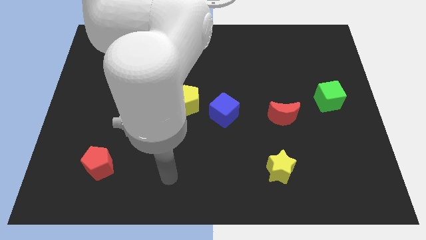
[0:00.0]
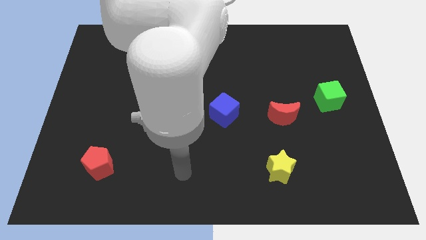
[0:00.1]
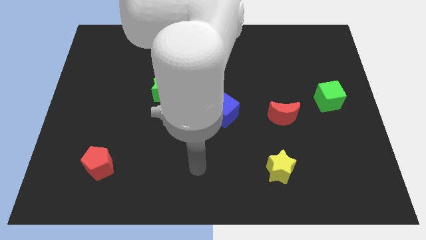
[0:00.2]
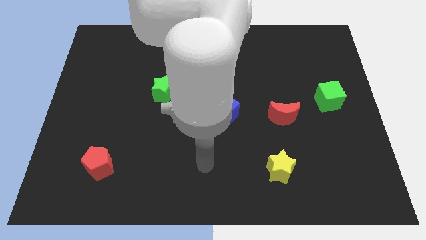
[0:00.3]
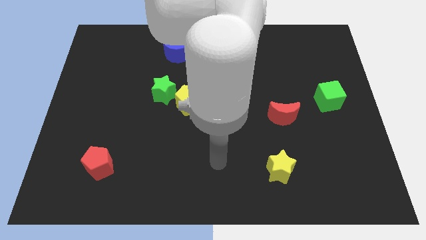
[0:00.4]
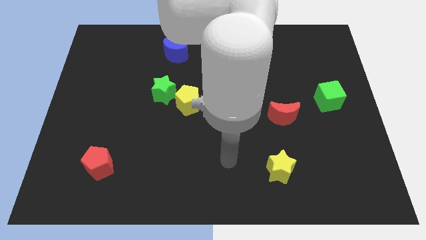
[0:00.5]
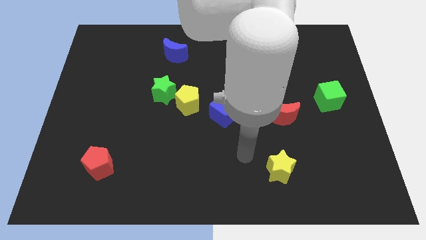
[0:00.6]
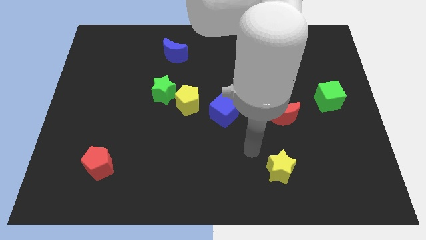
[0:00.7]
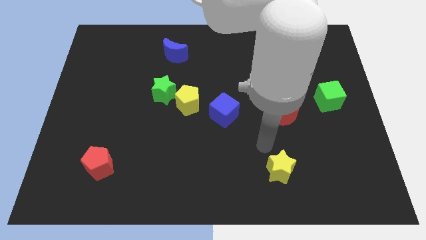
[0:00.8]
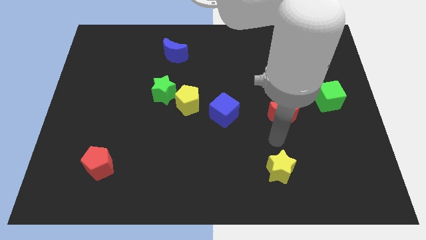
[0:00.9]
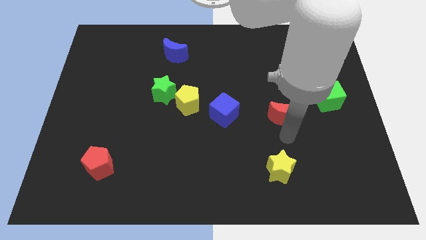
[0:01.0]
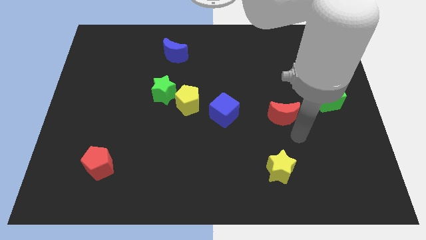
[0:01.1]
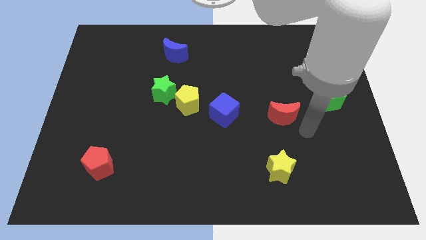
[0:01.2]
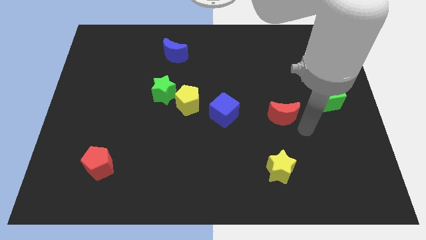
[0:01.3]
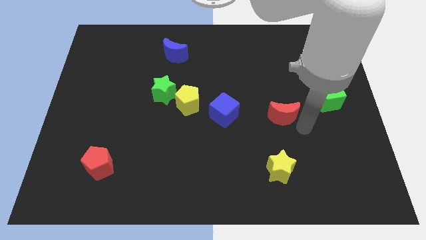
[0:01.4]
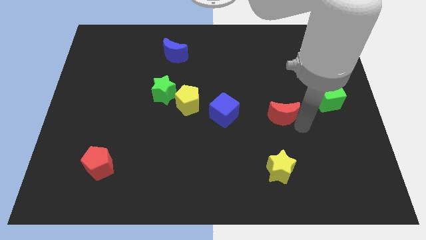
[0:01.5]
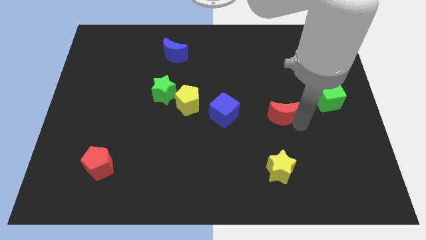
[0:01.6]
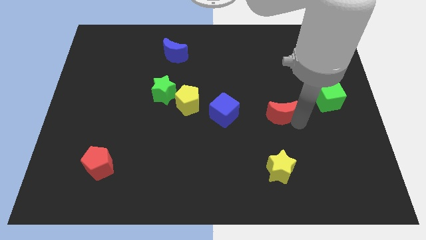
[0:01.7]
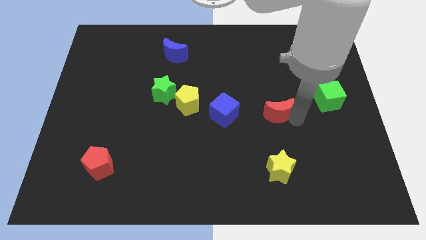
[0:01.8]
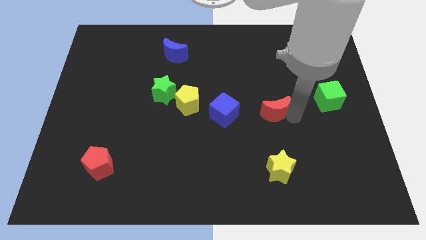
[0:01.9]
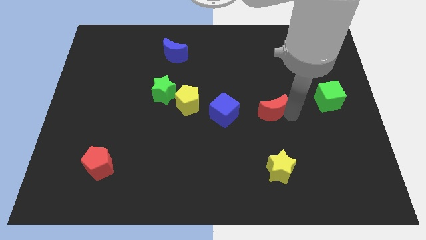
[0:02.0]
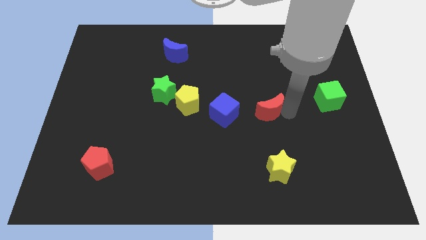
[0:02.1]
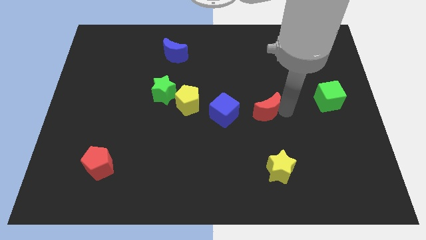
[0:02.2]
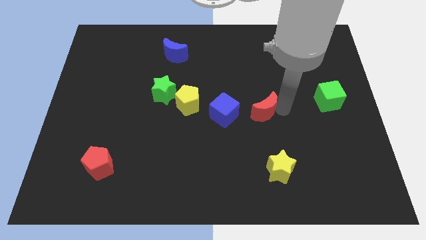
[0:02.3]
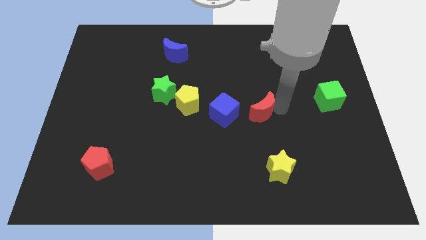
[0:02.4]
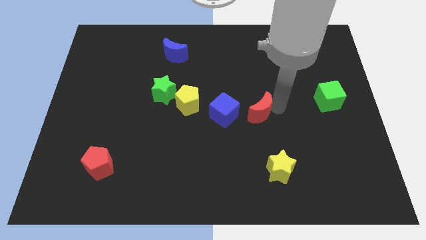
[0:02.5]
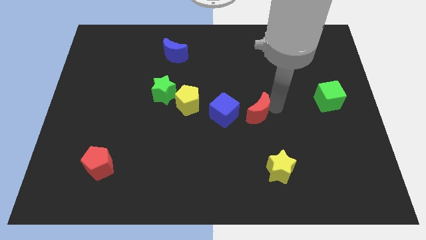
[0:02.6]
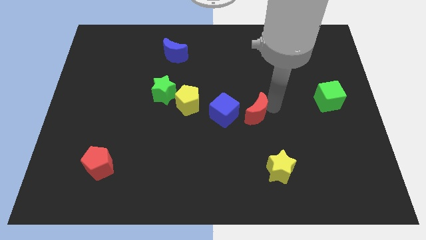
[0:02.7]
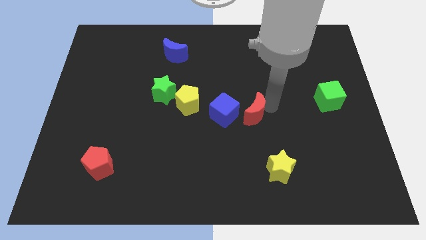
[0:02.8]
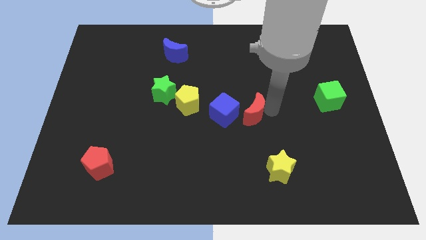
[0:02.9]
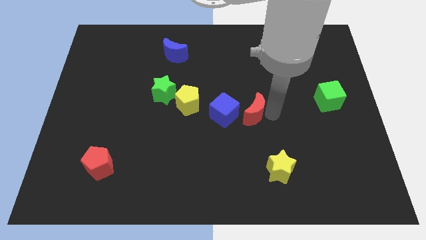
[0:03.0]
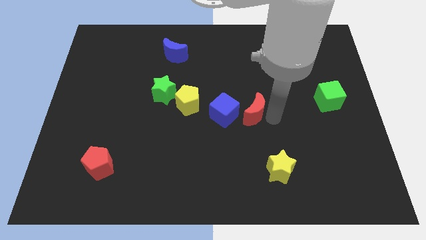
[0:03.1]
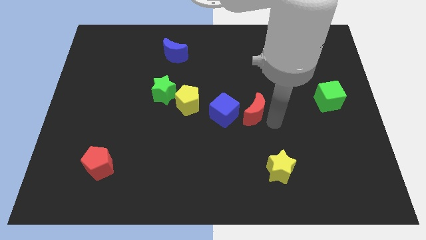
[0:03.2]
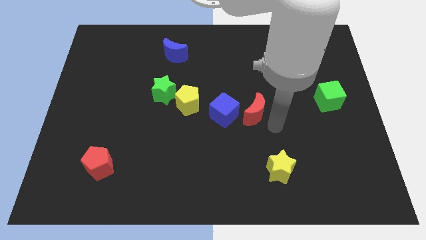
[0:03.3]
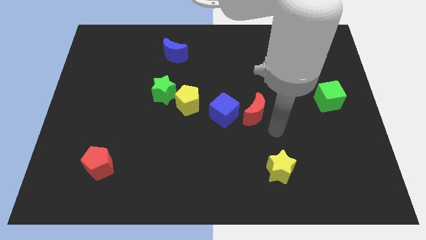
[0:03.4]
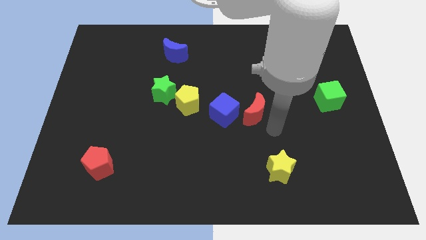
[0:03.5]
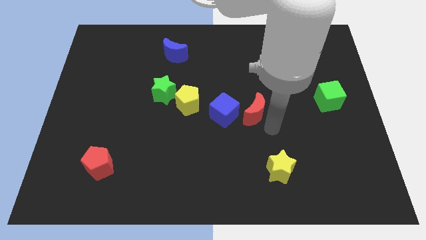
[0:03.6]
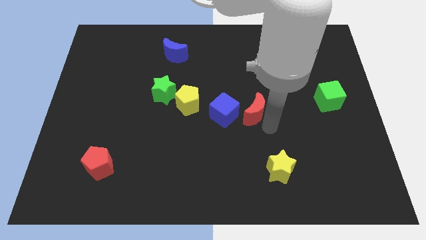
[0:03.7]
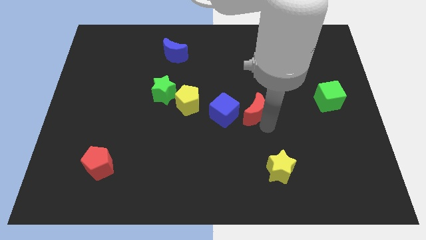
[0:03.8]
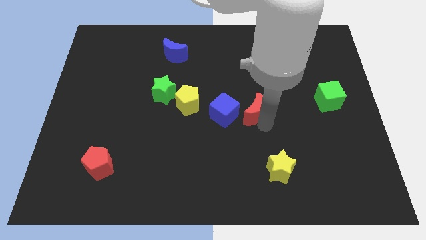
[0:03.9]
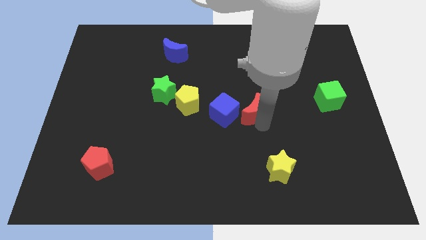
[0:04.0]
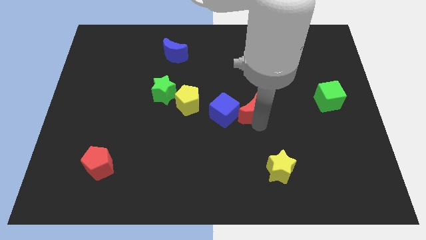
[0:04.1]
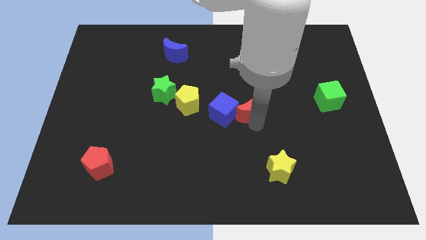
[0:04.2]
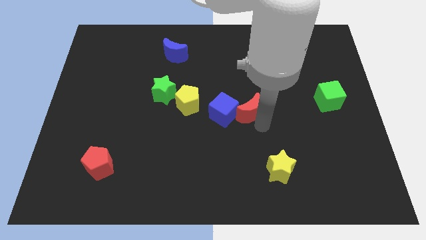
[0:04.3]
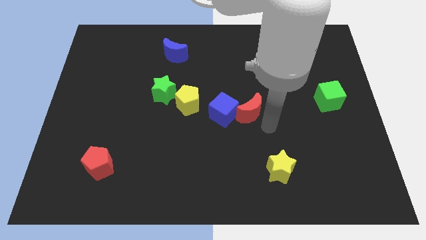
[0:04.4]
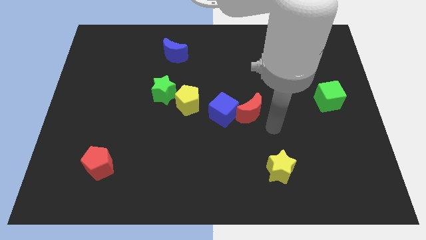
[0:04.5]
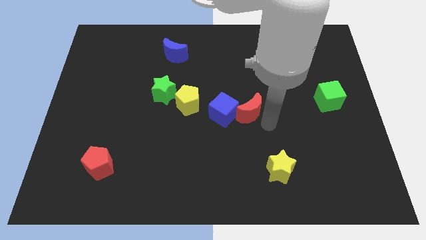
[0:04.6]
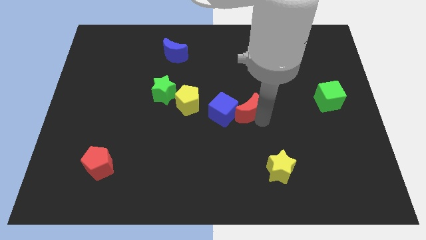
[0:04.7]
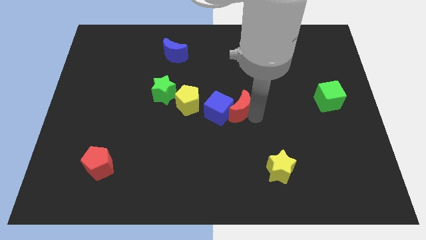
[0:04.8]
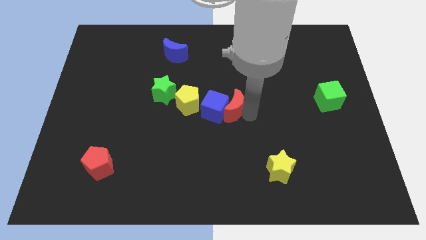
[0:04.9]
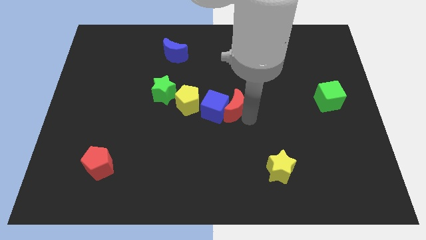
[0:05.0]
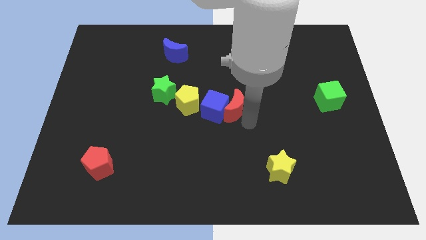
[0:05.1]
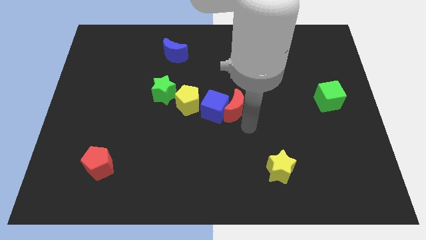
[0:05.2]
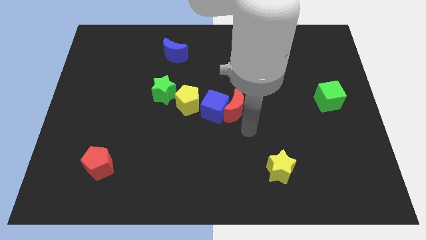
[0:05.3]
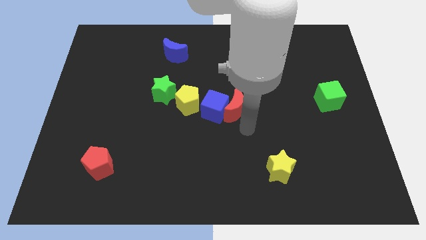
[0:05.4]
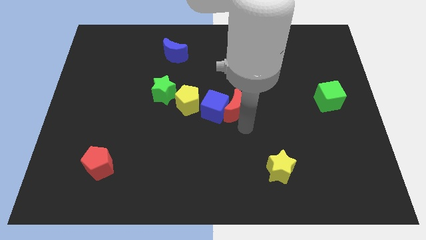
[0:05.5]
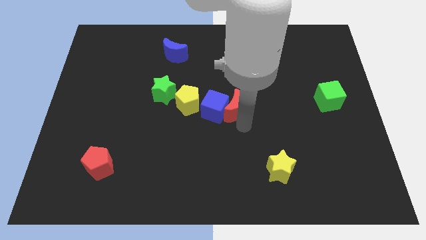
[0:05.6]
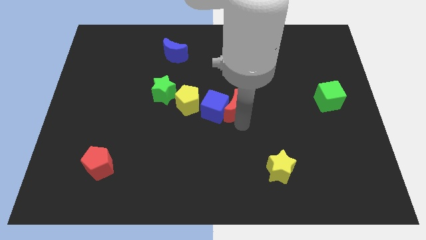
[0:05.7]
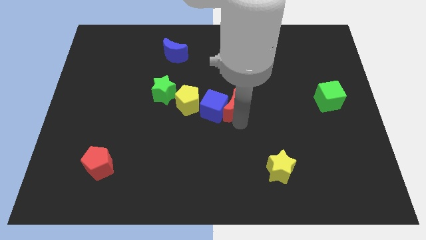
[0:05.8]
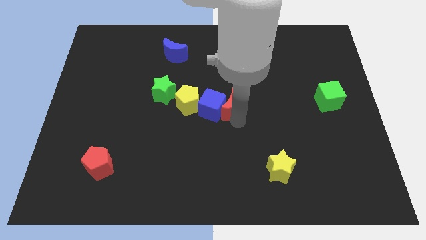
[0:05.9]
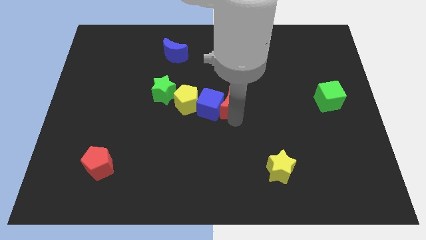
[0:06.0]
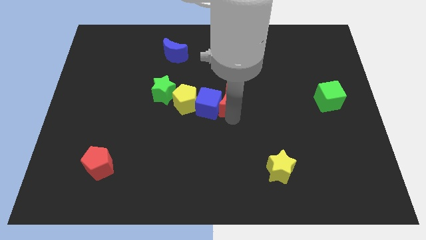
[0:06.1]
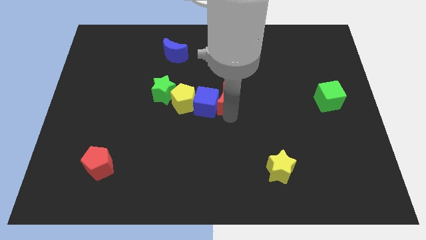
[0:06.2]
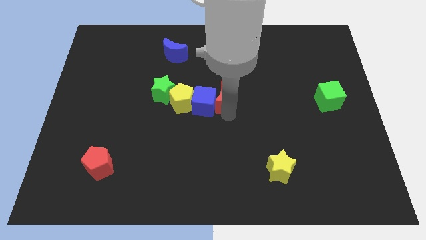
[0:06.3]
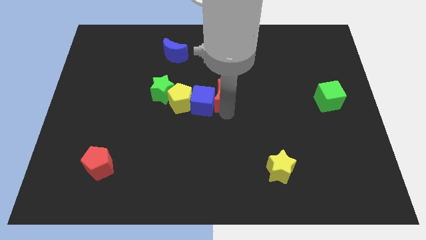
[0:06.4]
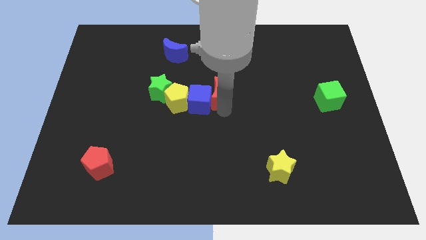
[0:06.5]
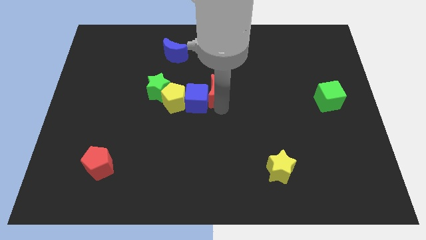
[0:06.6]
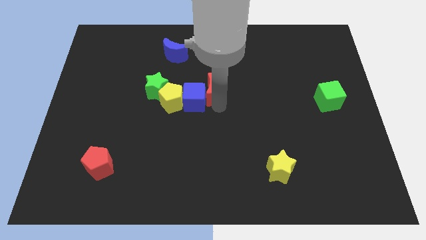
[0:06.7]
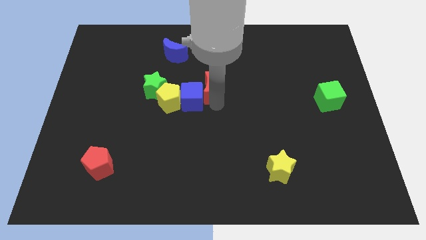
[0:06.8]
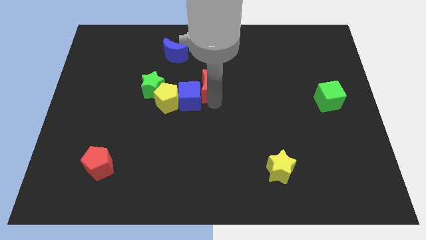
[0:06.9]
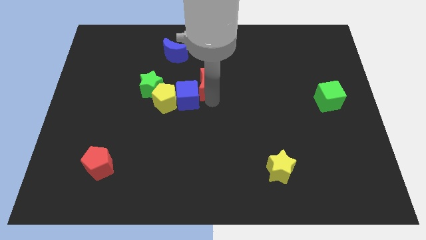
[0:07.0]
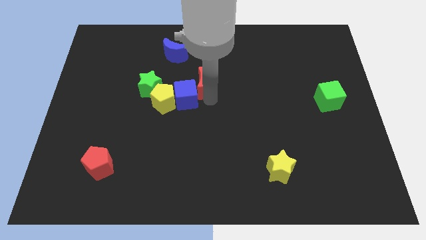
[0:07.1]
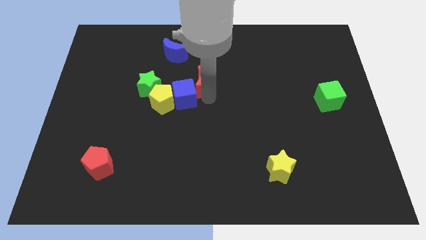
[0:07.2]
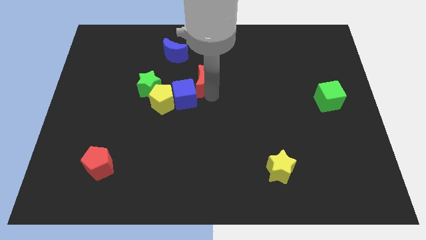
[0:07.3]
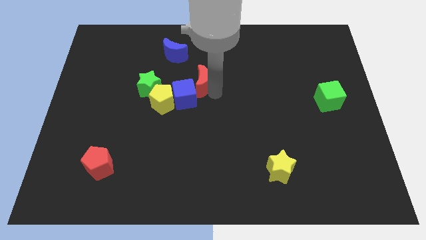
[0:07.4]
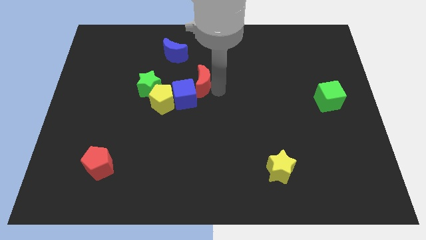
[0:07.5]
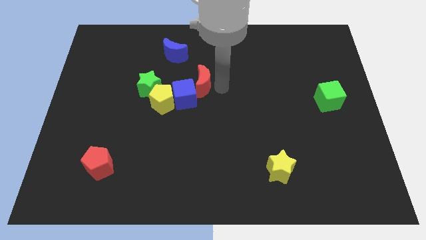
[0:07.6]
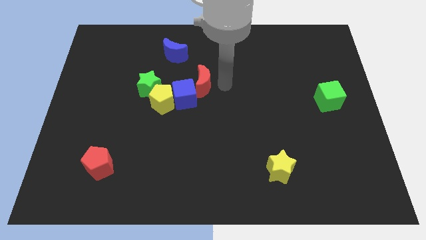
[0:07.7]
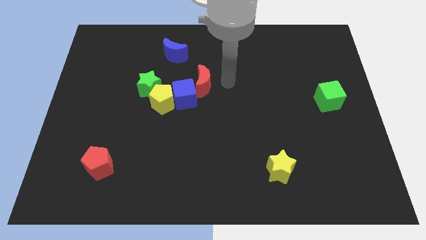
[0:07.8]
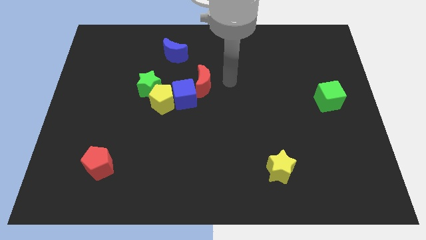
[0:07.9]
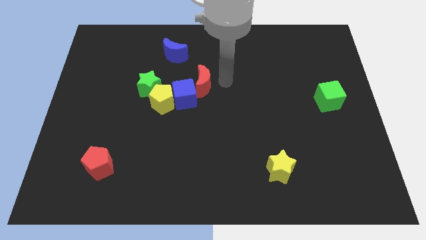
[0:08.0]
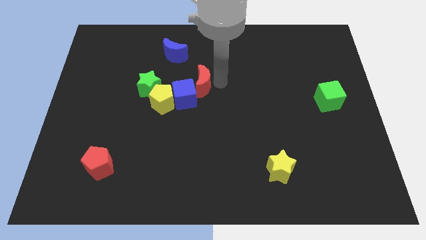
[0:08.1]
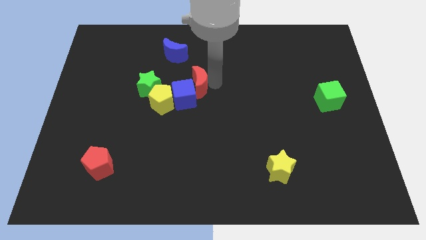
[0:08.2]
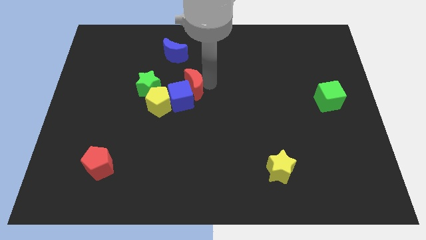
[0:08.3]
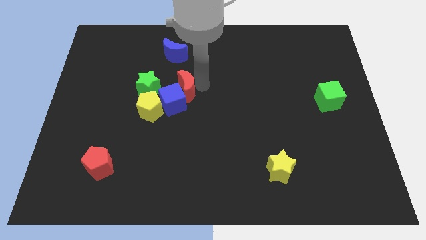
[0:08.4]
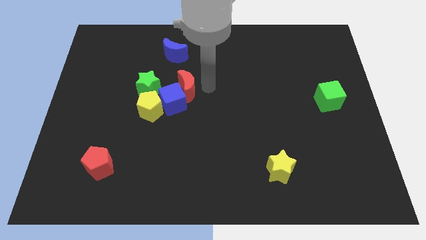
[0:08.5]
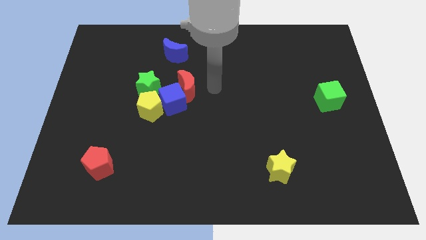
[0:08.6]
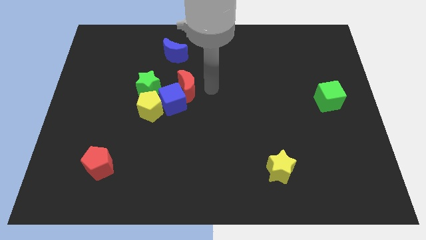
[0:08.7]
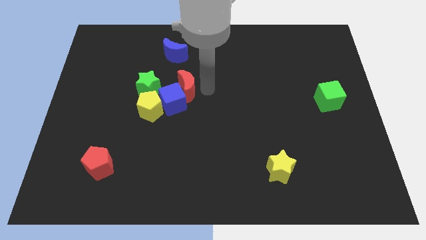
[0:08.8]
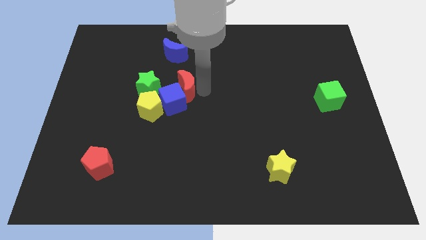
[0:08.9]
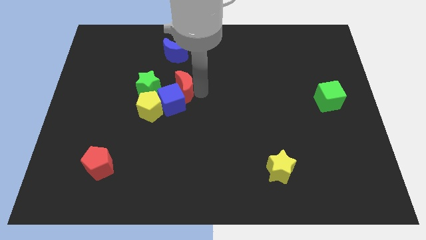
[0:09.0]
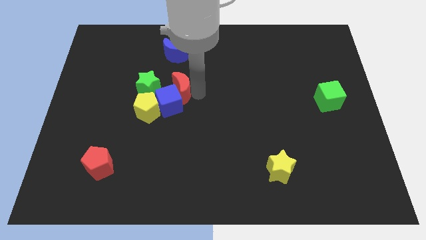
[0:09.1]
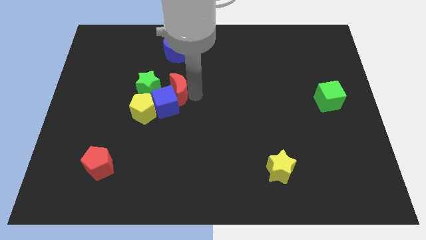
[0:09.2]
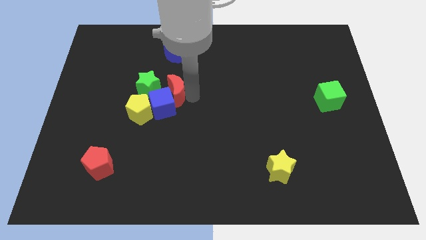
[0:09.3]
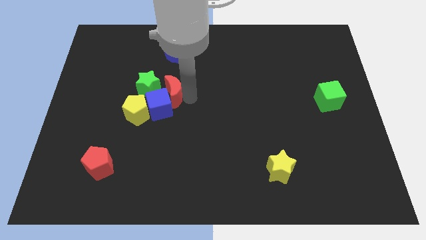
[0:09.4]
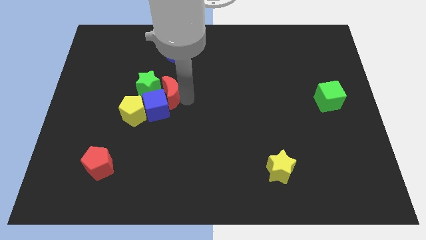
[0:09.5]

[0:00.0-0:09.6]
put the red moon to the green star
